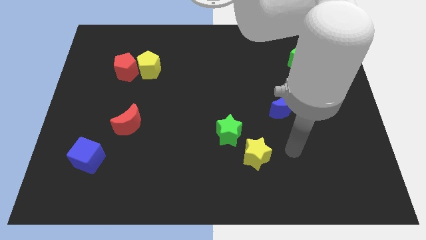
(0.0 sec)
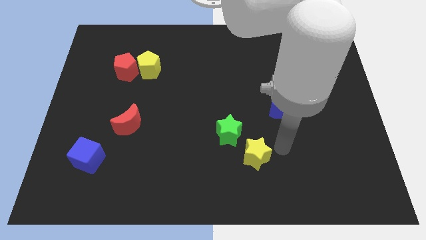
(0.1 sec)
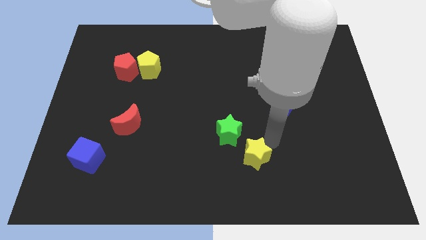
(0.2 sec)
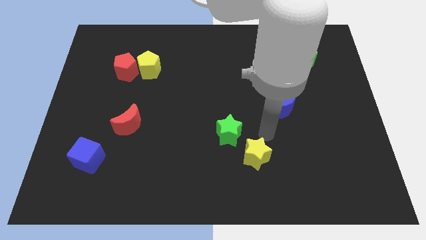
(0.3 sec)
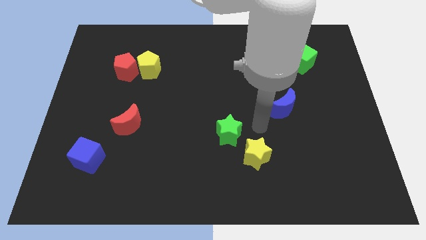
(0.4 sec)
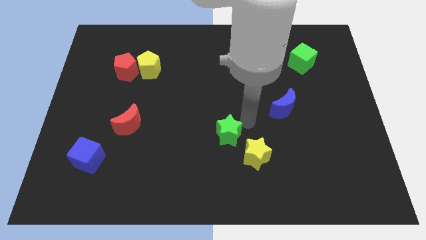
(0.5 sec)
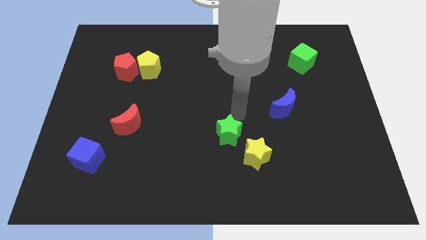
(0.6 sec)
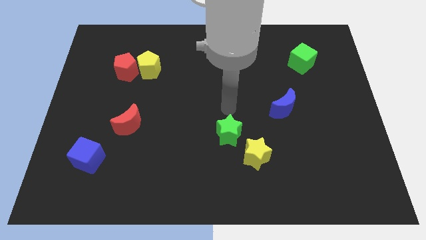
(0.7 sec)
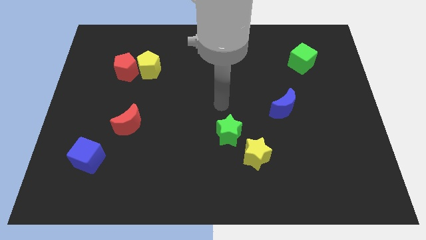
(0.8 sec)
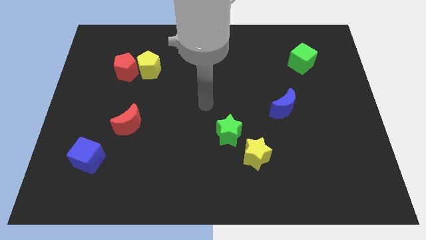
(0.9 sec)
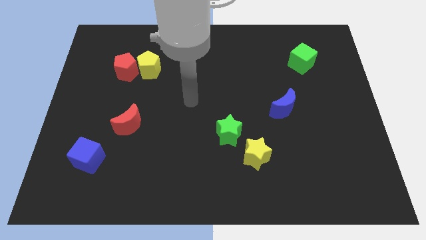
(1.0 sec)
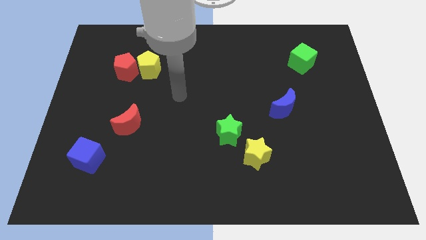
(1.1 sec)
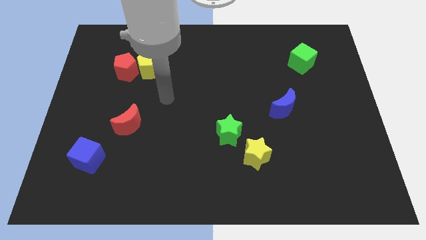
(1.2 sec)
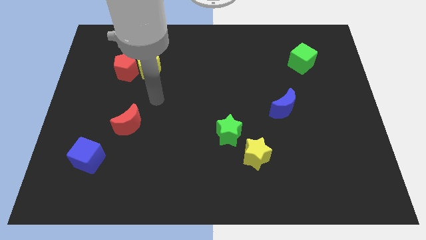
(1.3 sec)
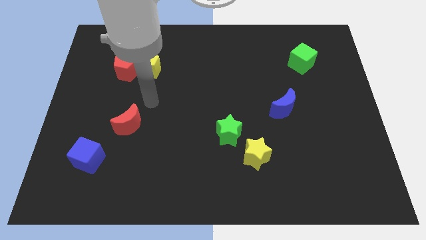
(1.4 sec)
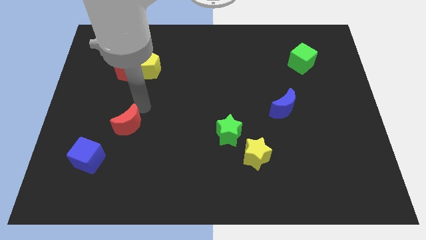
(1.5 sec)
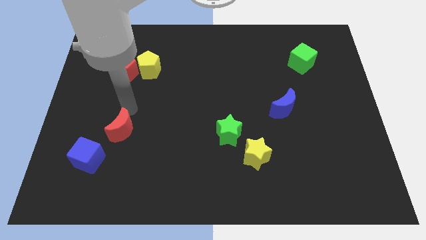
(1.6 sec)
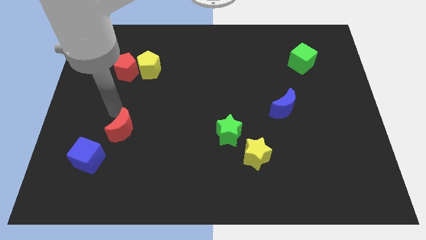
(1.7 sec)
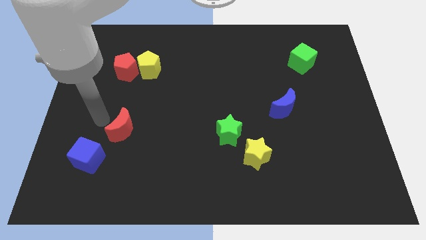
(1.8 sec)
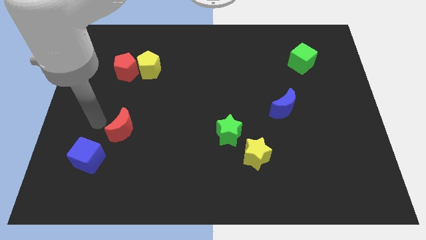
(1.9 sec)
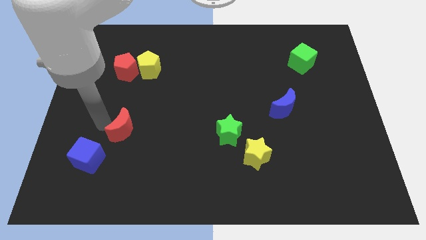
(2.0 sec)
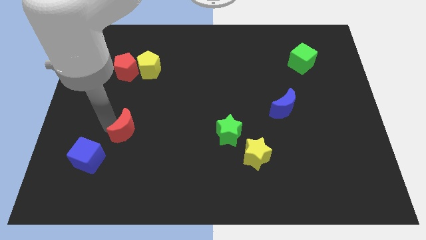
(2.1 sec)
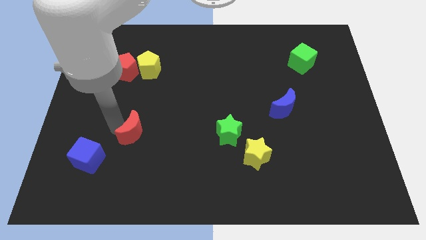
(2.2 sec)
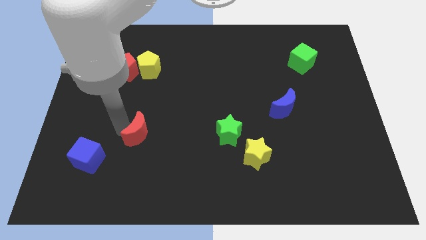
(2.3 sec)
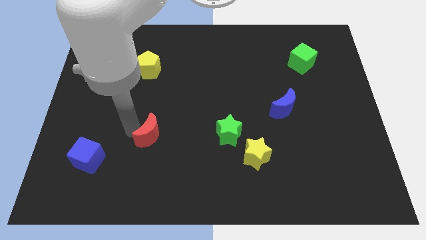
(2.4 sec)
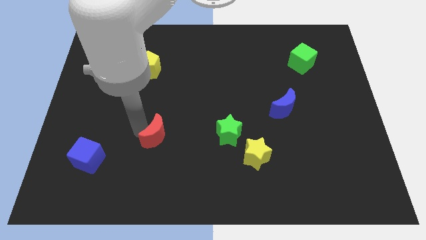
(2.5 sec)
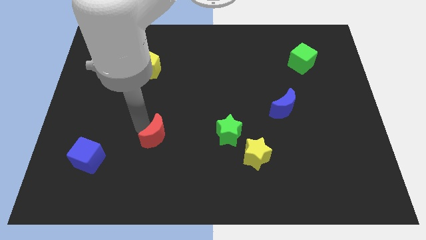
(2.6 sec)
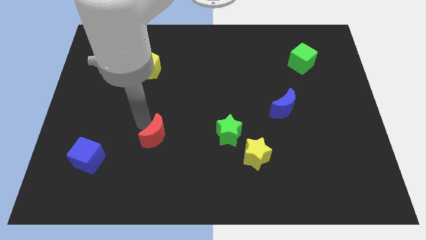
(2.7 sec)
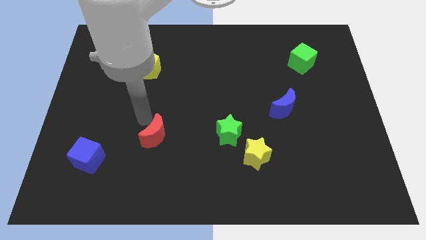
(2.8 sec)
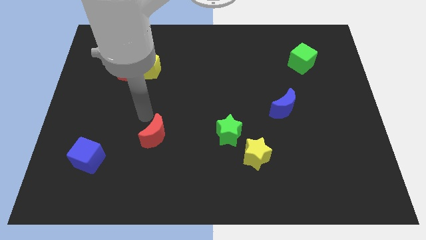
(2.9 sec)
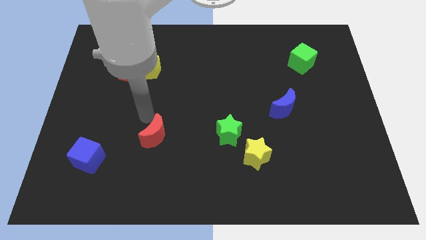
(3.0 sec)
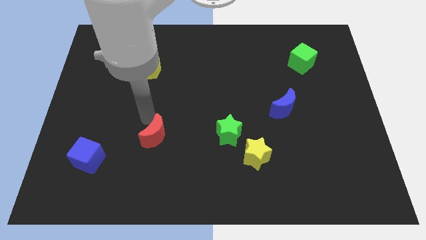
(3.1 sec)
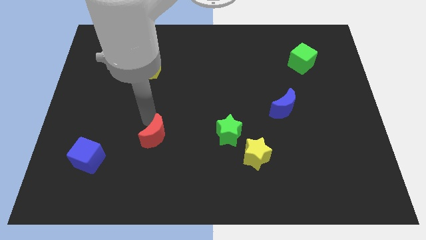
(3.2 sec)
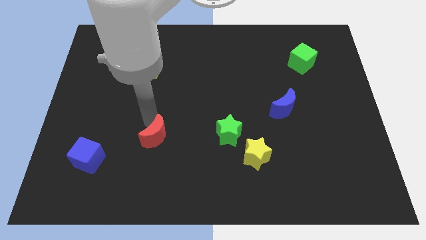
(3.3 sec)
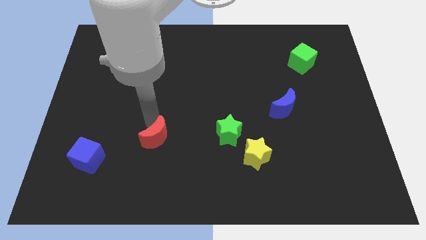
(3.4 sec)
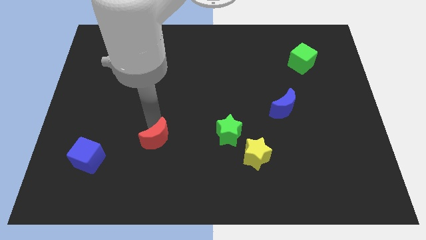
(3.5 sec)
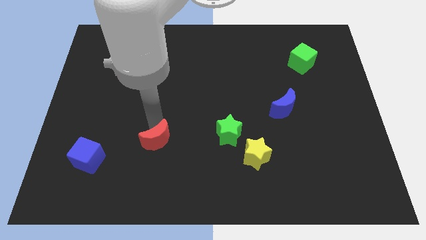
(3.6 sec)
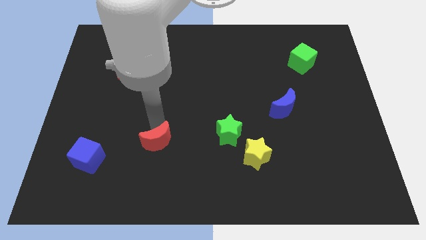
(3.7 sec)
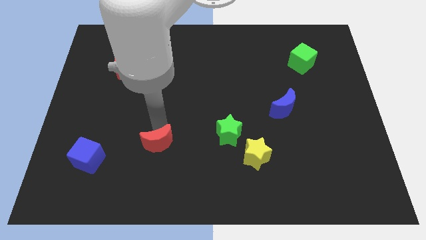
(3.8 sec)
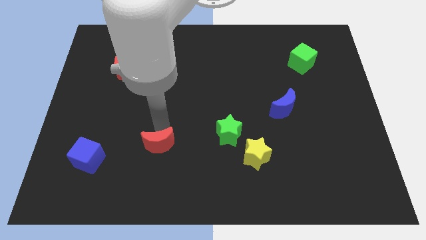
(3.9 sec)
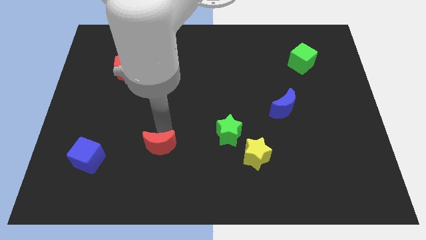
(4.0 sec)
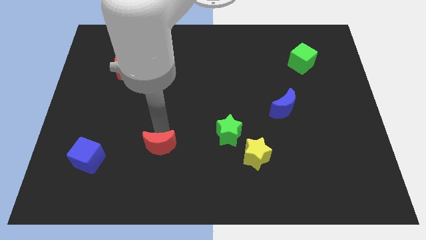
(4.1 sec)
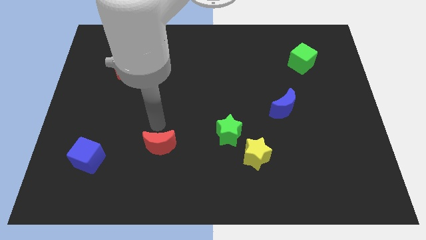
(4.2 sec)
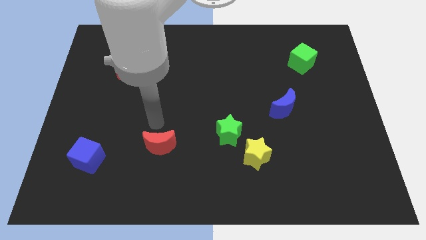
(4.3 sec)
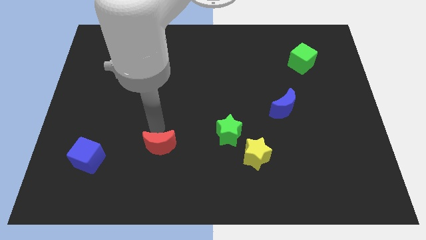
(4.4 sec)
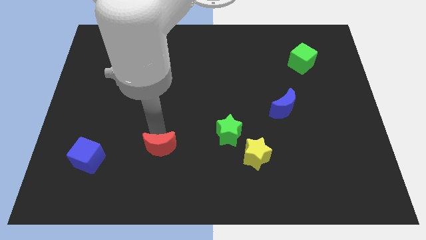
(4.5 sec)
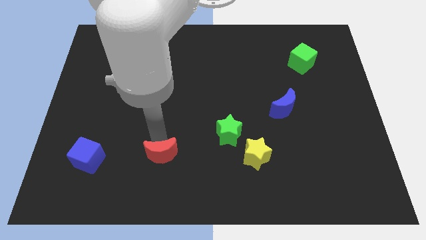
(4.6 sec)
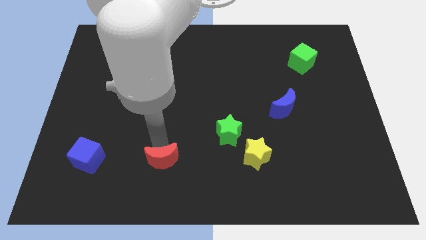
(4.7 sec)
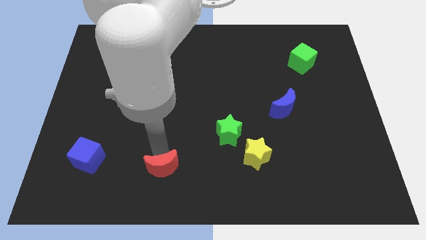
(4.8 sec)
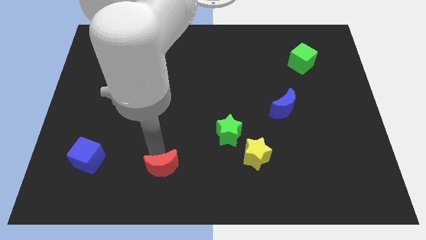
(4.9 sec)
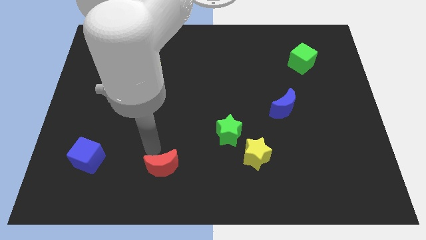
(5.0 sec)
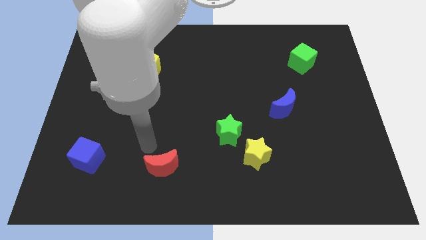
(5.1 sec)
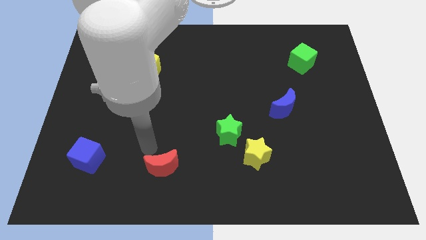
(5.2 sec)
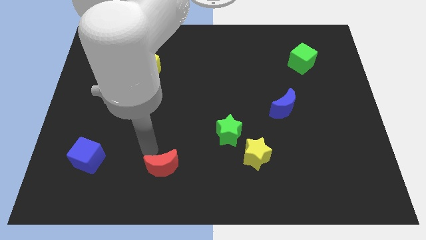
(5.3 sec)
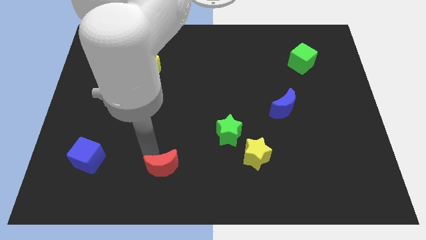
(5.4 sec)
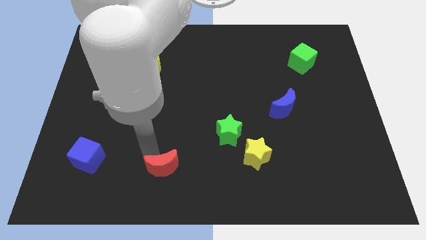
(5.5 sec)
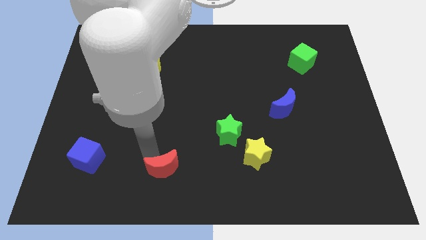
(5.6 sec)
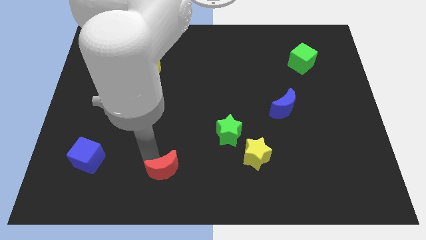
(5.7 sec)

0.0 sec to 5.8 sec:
put the red moon to the bottom
